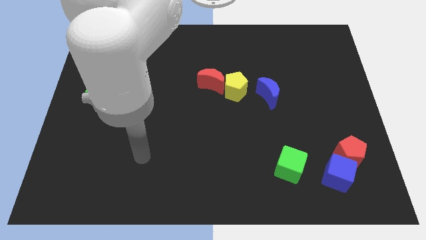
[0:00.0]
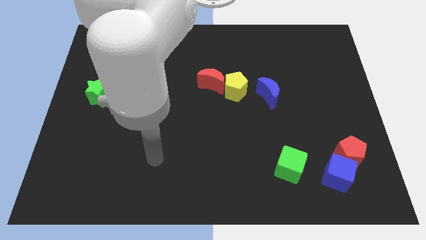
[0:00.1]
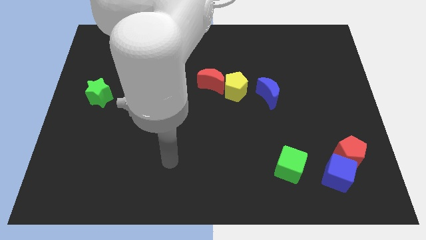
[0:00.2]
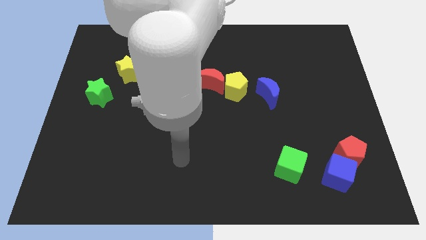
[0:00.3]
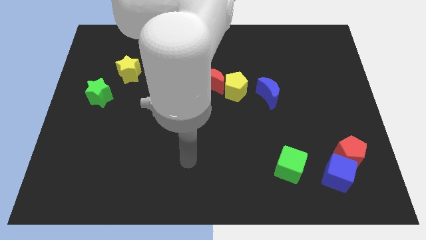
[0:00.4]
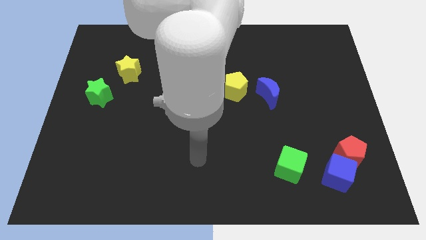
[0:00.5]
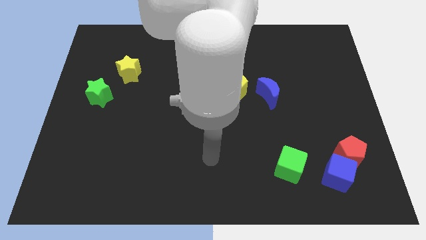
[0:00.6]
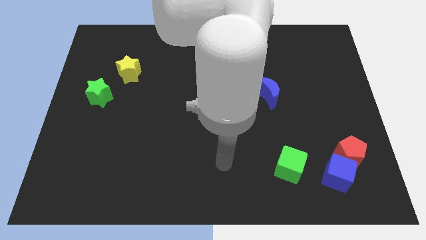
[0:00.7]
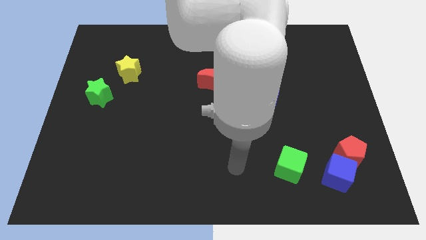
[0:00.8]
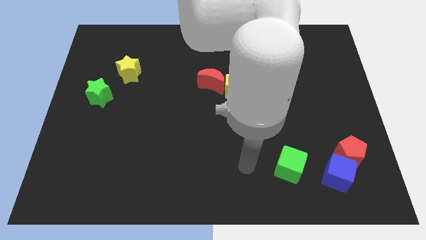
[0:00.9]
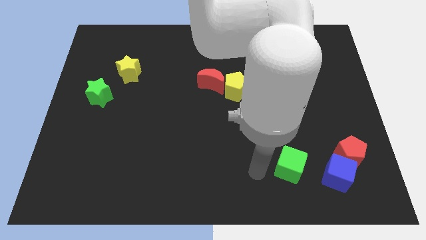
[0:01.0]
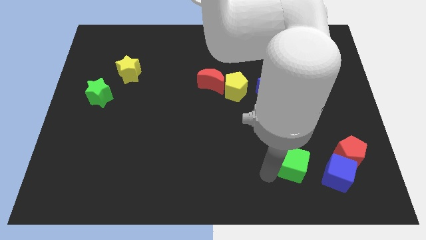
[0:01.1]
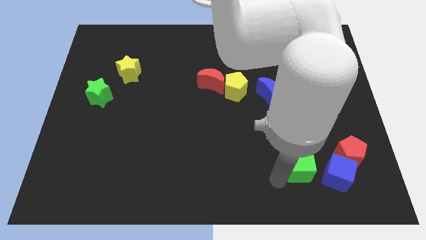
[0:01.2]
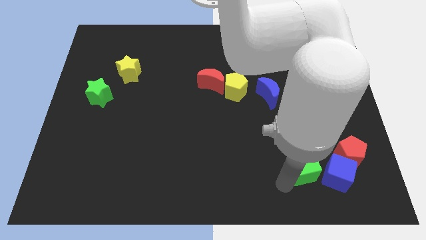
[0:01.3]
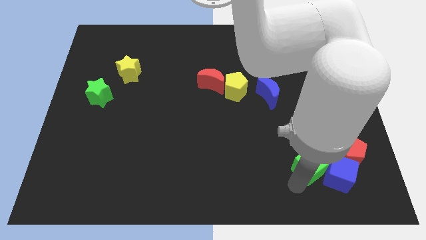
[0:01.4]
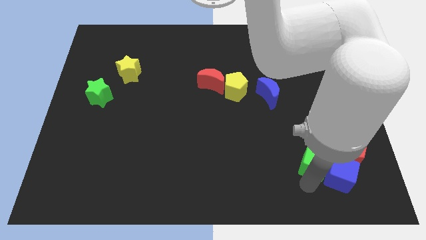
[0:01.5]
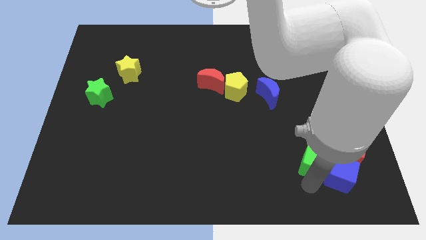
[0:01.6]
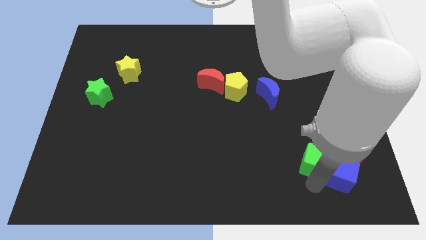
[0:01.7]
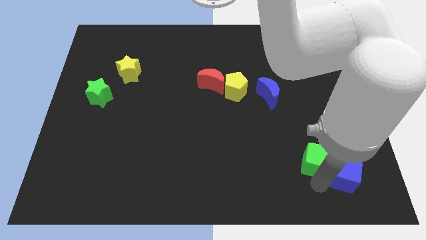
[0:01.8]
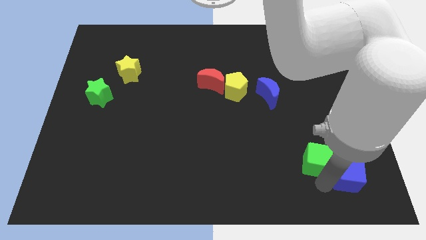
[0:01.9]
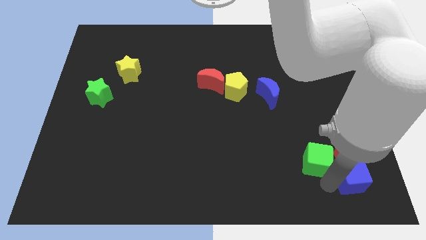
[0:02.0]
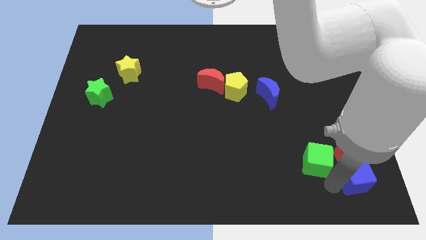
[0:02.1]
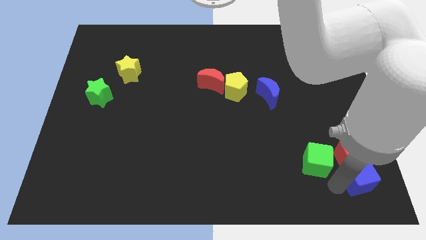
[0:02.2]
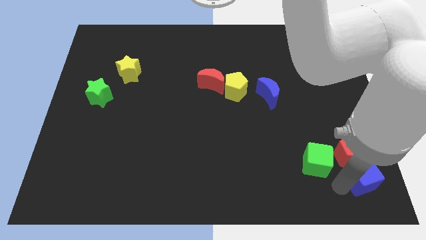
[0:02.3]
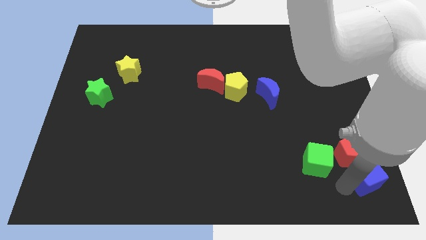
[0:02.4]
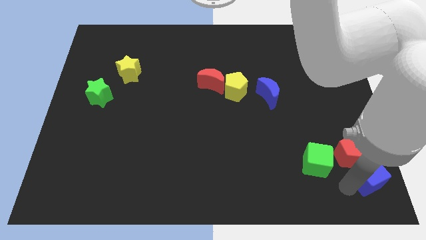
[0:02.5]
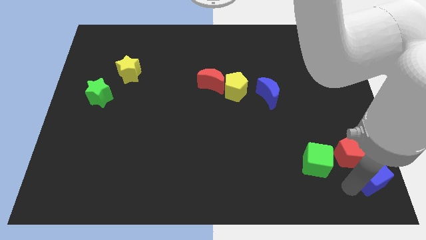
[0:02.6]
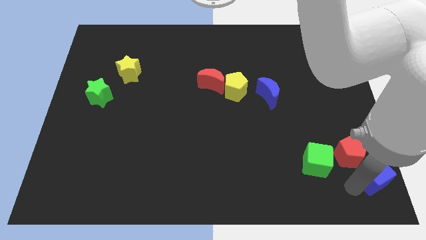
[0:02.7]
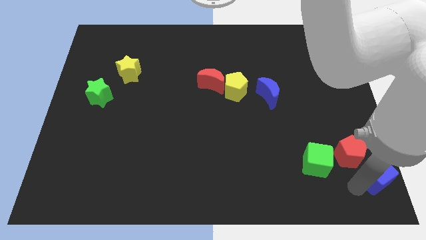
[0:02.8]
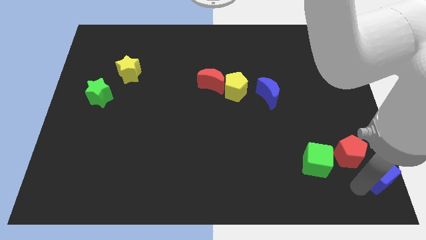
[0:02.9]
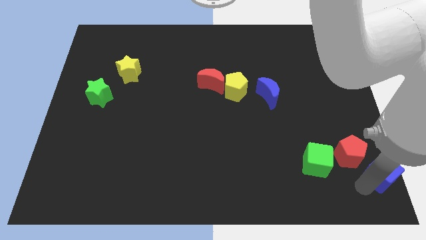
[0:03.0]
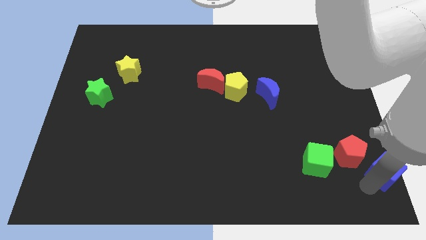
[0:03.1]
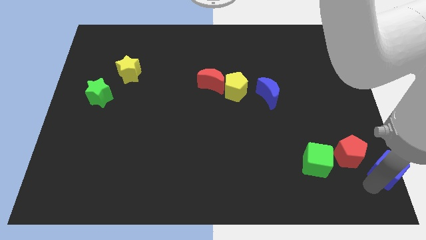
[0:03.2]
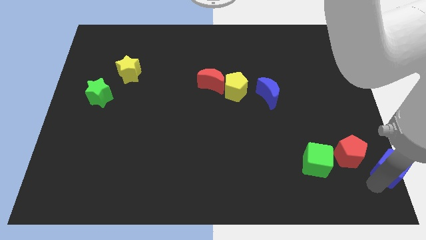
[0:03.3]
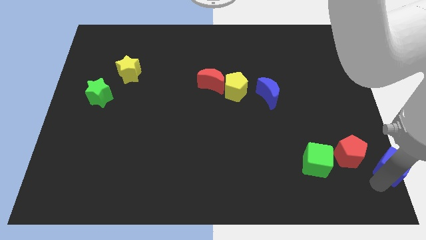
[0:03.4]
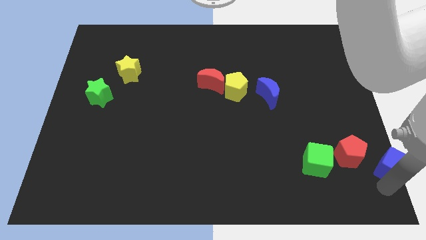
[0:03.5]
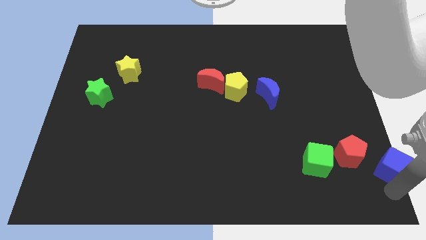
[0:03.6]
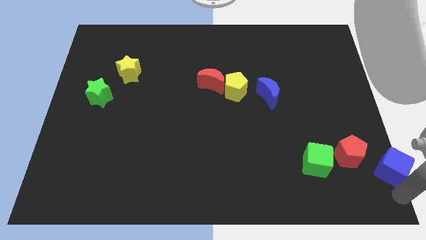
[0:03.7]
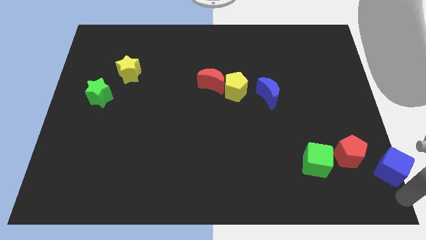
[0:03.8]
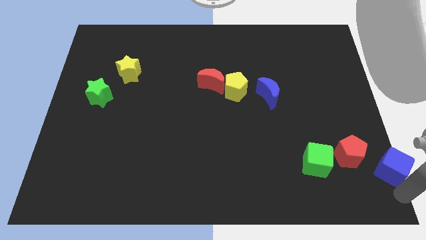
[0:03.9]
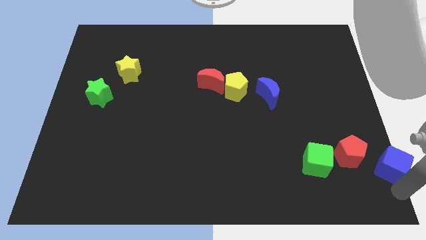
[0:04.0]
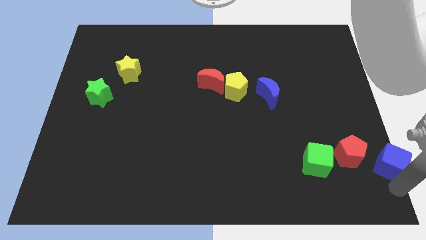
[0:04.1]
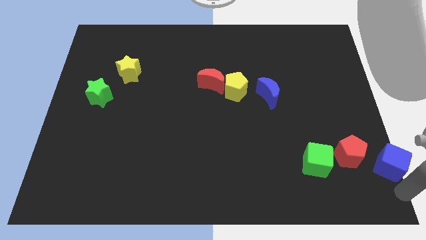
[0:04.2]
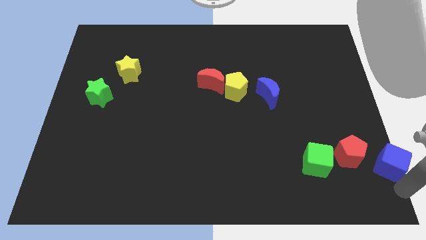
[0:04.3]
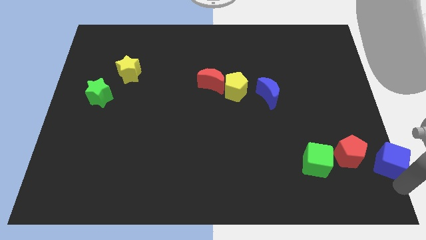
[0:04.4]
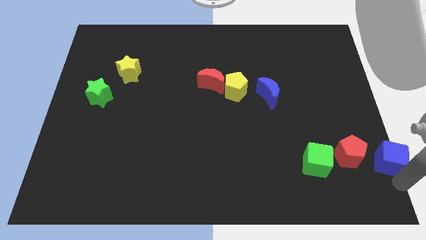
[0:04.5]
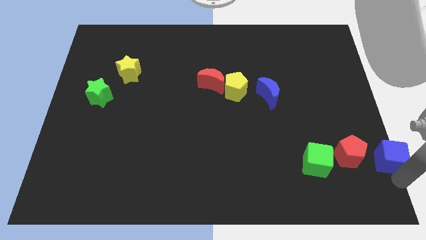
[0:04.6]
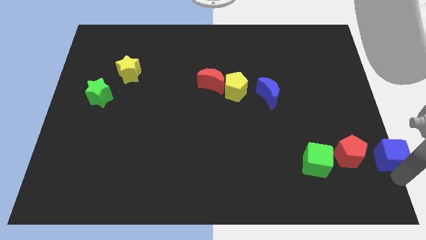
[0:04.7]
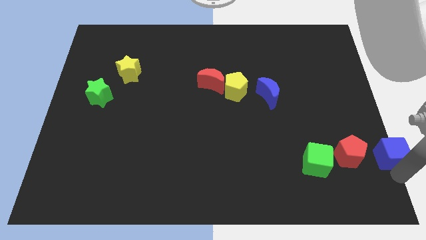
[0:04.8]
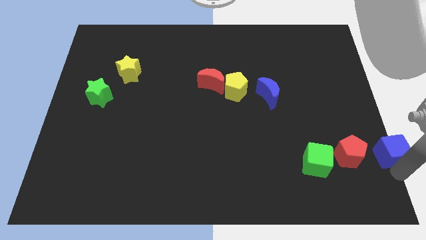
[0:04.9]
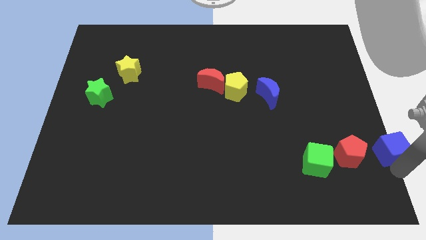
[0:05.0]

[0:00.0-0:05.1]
push the blue cube to the center right

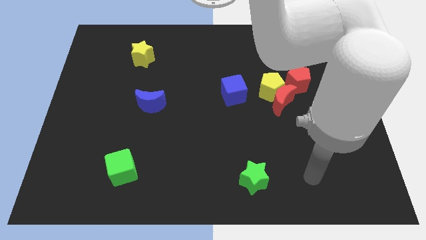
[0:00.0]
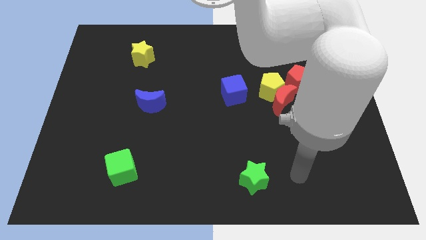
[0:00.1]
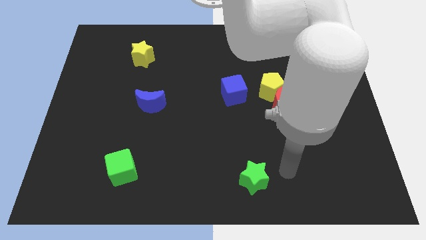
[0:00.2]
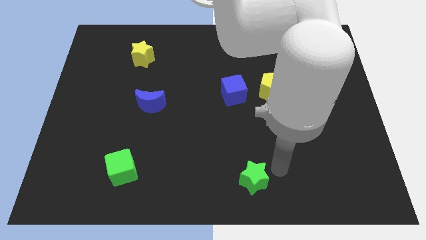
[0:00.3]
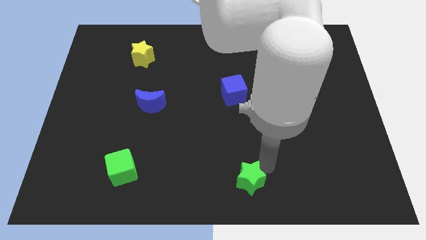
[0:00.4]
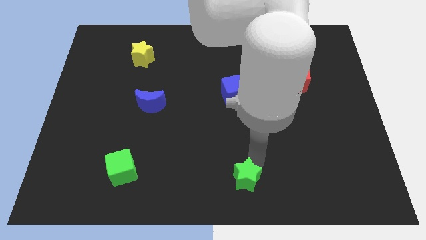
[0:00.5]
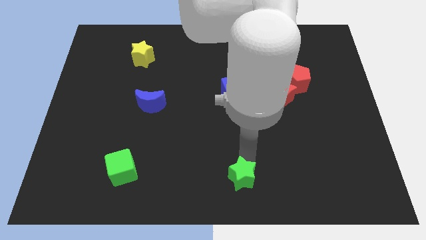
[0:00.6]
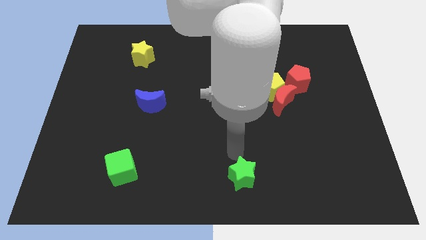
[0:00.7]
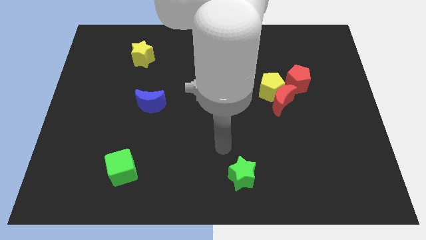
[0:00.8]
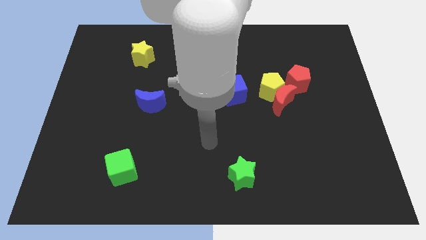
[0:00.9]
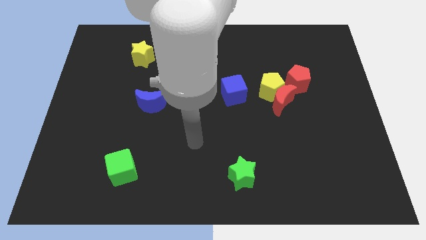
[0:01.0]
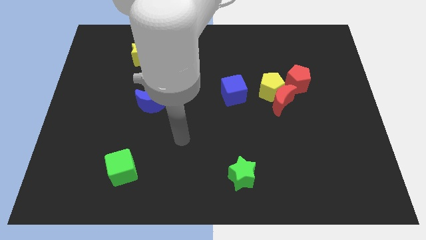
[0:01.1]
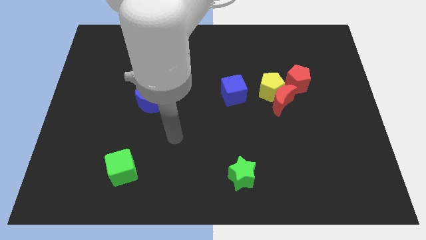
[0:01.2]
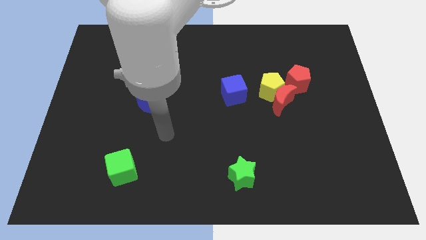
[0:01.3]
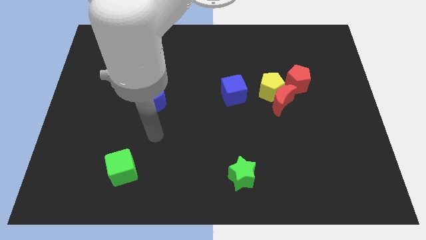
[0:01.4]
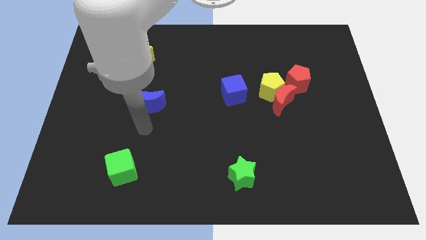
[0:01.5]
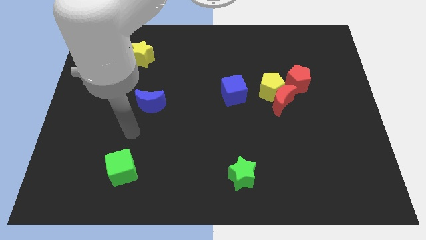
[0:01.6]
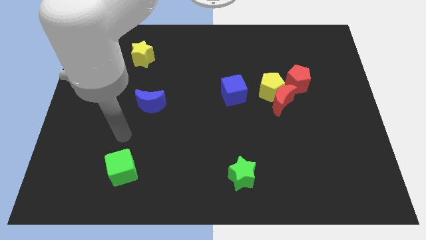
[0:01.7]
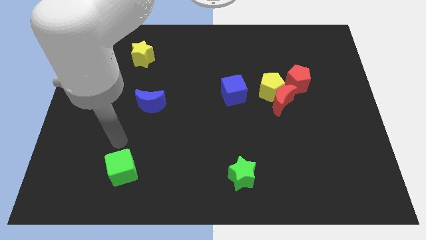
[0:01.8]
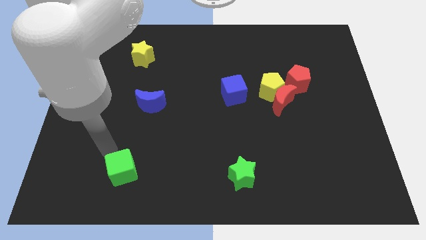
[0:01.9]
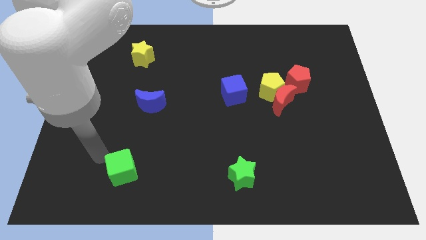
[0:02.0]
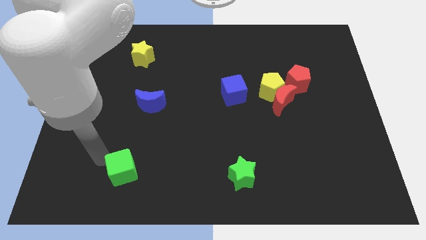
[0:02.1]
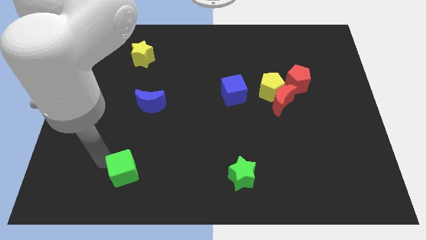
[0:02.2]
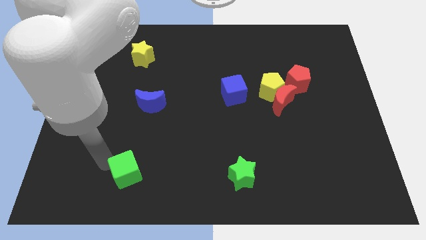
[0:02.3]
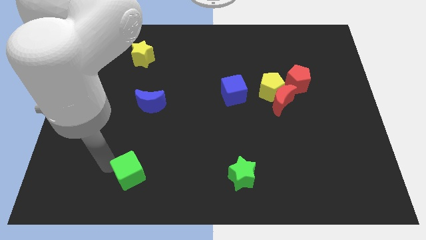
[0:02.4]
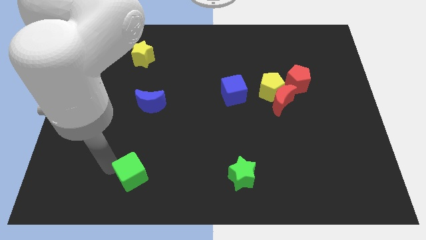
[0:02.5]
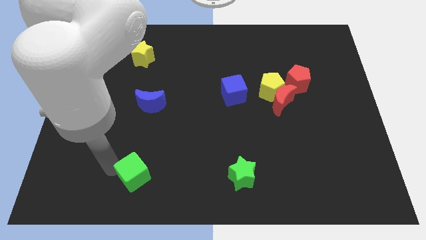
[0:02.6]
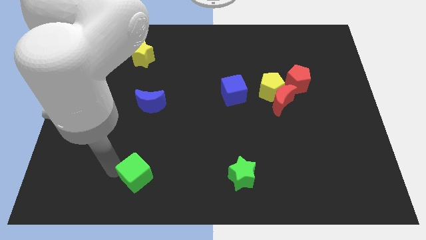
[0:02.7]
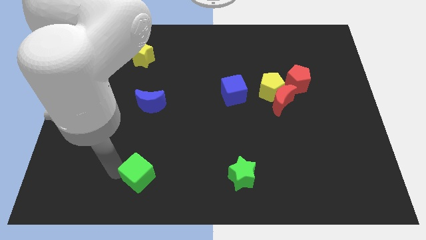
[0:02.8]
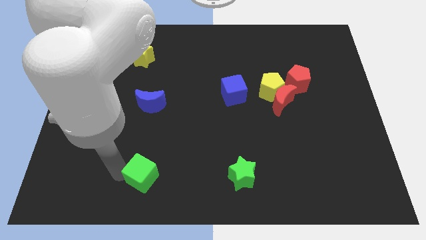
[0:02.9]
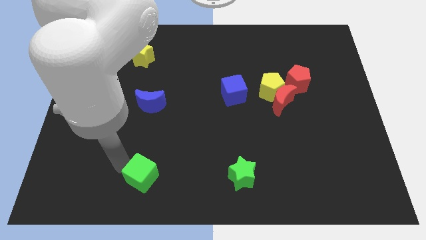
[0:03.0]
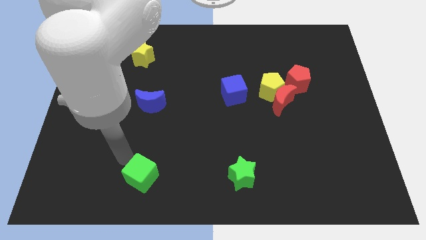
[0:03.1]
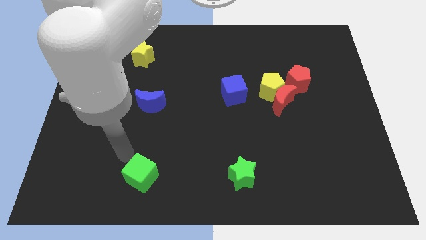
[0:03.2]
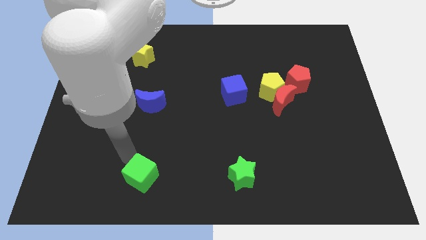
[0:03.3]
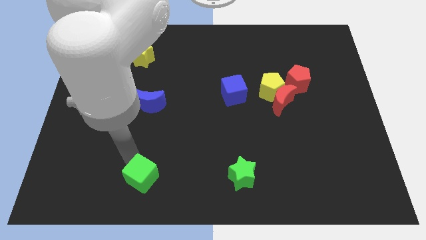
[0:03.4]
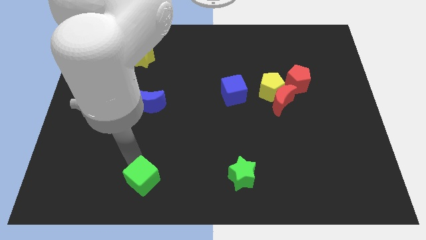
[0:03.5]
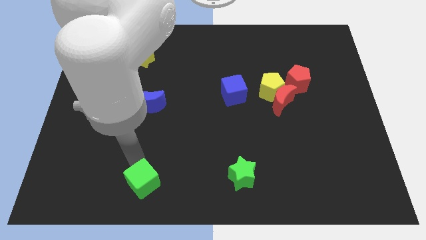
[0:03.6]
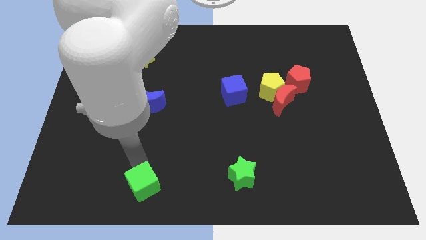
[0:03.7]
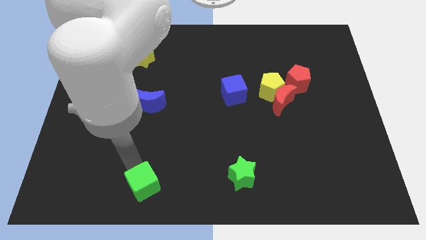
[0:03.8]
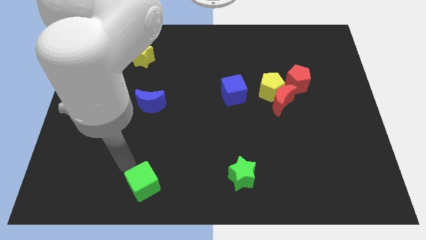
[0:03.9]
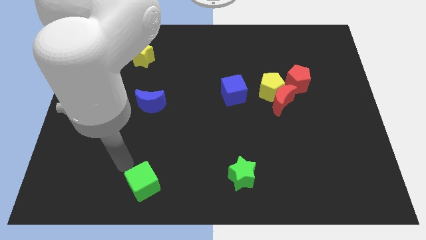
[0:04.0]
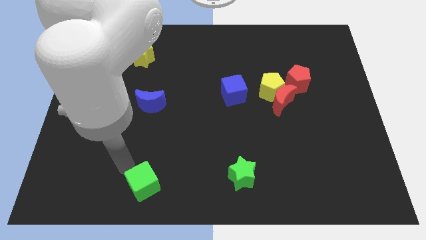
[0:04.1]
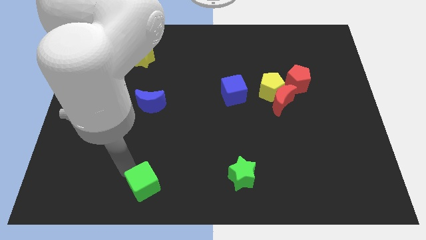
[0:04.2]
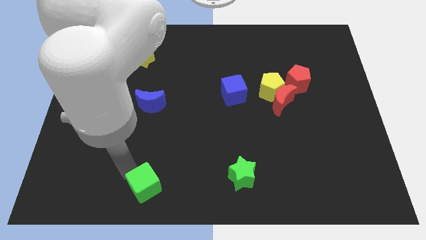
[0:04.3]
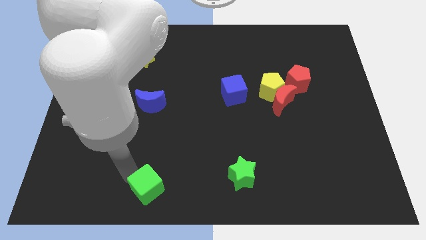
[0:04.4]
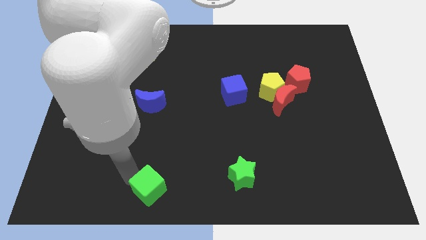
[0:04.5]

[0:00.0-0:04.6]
move the green cube to the bottom
